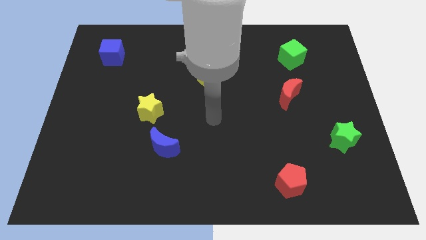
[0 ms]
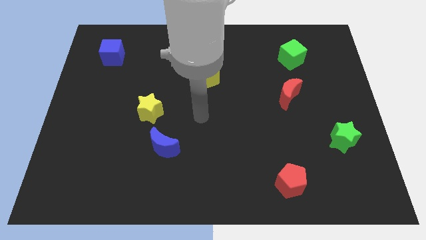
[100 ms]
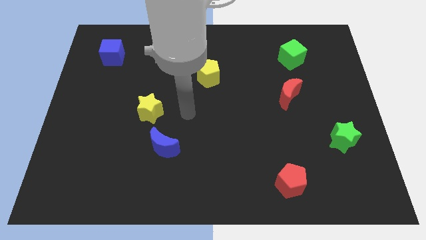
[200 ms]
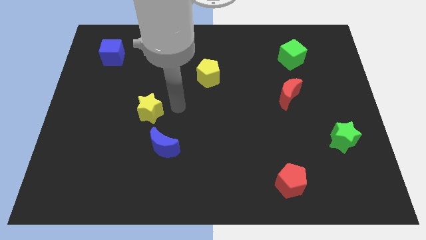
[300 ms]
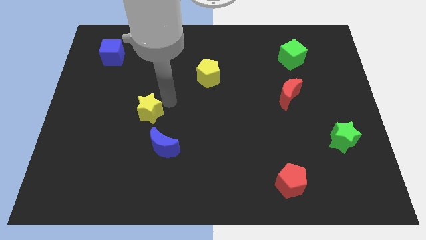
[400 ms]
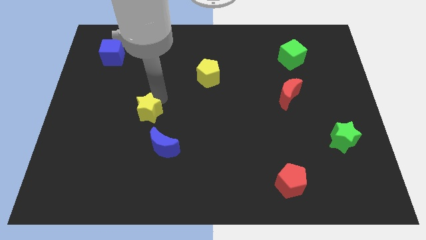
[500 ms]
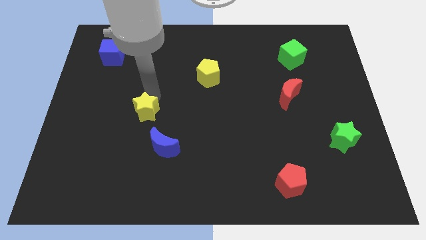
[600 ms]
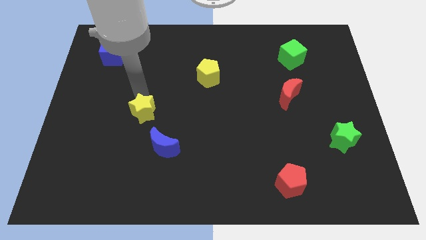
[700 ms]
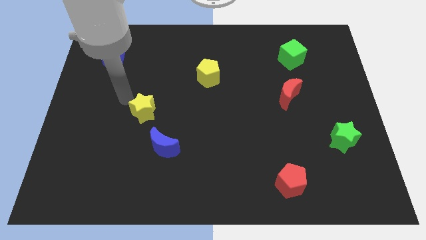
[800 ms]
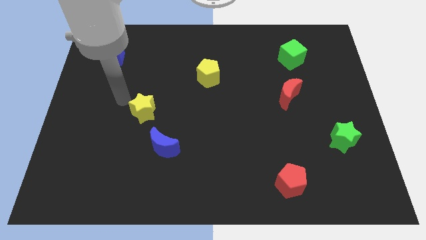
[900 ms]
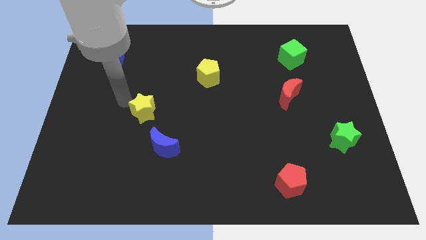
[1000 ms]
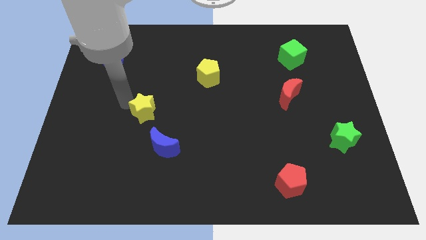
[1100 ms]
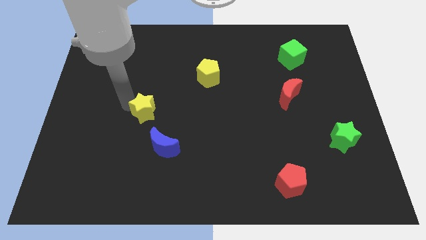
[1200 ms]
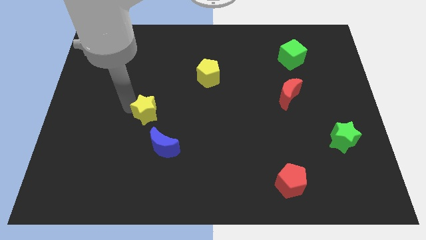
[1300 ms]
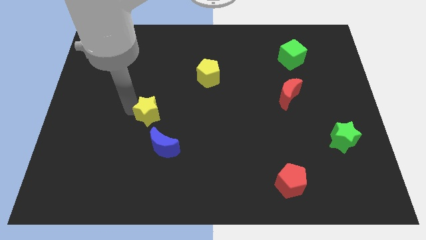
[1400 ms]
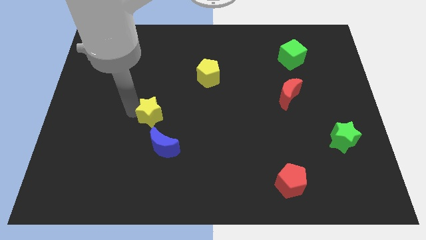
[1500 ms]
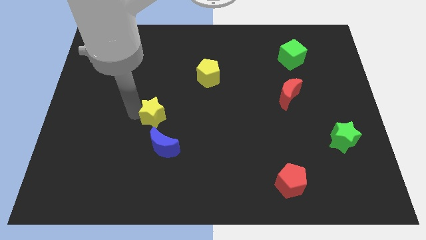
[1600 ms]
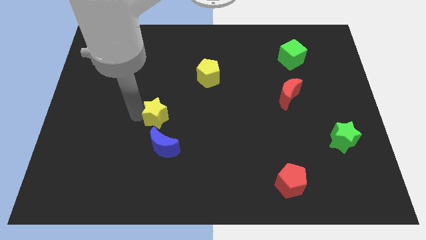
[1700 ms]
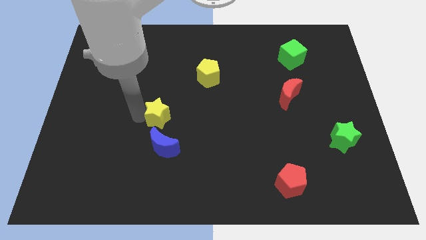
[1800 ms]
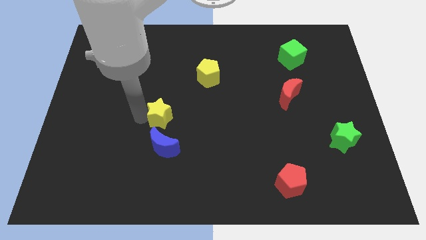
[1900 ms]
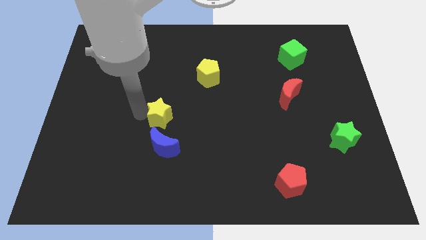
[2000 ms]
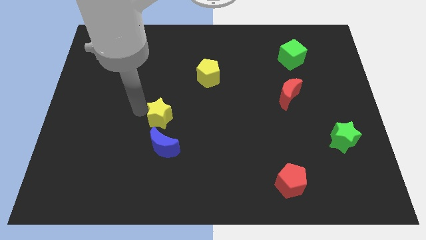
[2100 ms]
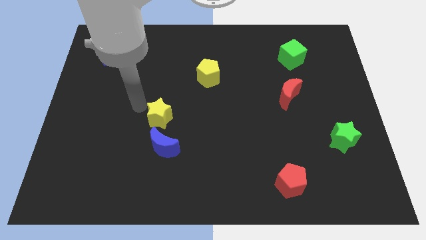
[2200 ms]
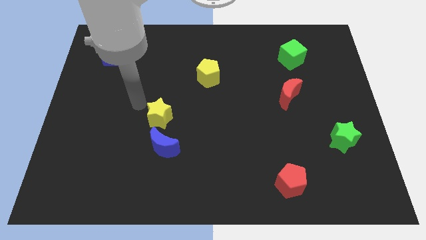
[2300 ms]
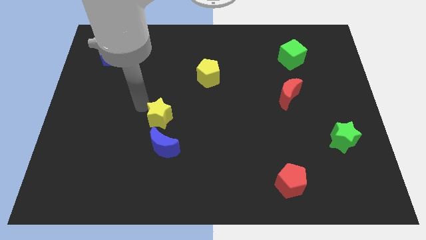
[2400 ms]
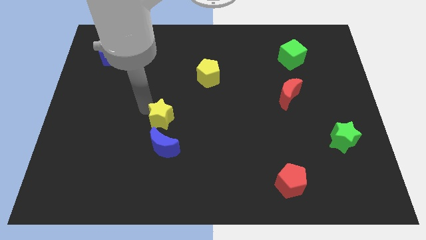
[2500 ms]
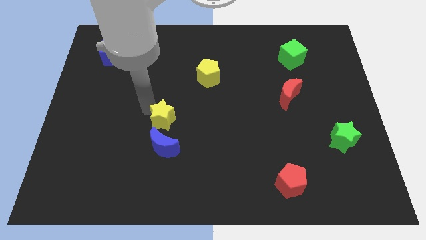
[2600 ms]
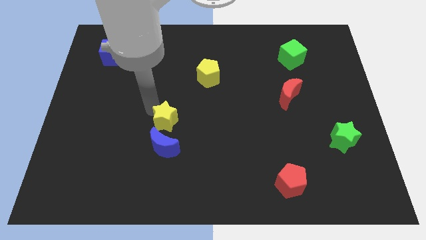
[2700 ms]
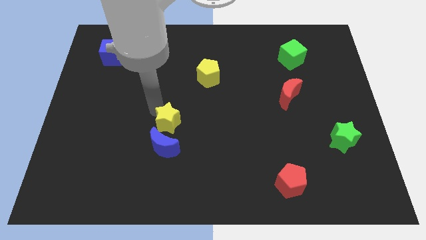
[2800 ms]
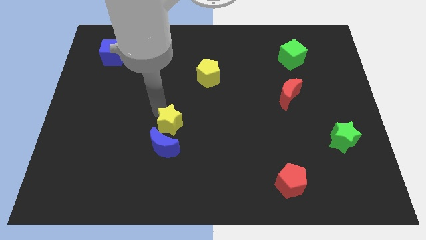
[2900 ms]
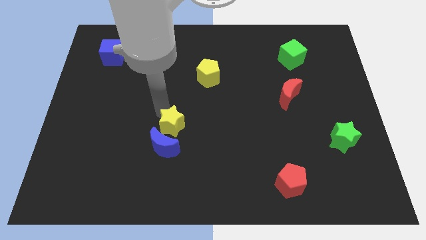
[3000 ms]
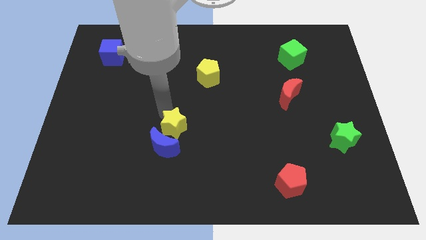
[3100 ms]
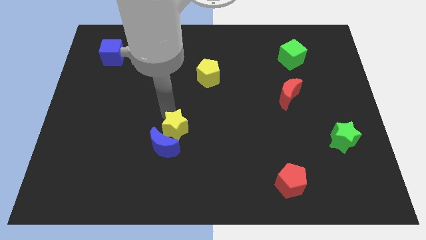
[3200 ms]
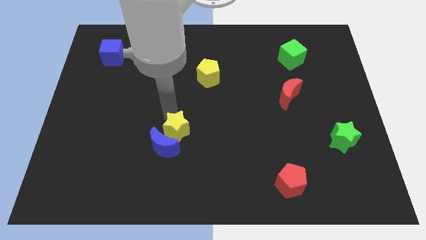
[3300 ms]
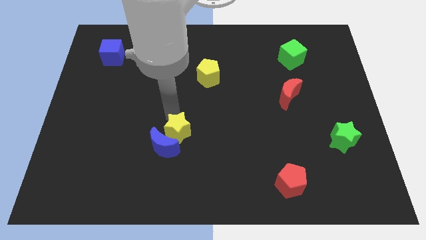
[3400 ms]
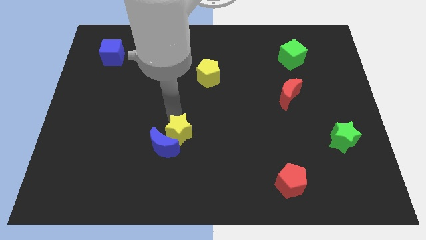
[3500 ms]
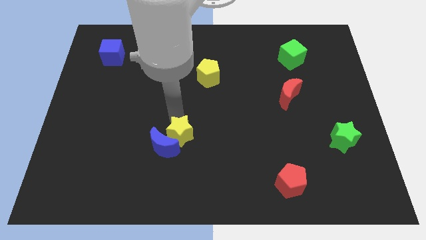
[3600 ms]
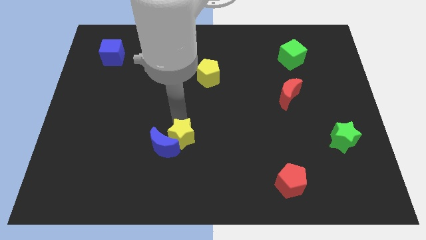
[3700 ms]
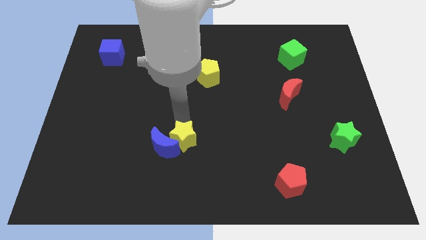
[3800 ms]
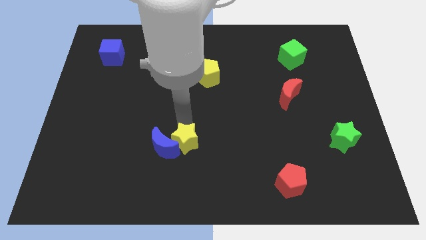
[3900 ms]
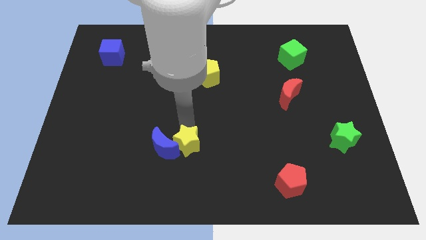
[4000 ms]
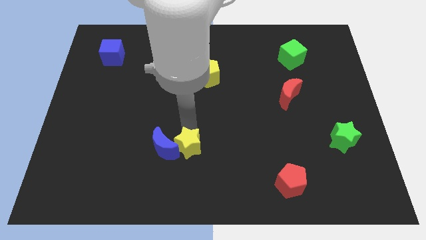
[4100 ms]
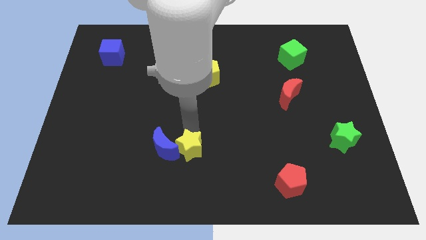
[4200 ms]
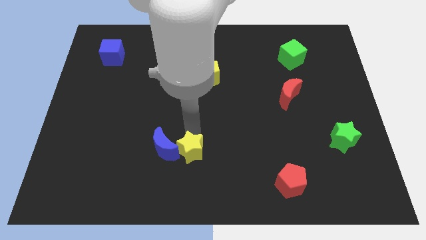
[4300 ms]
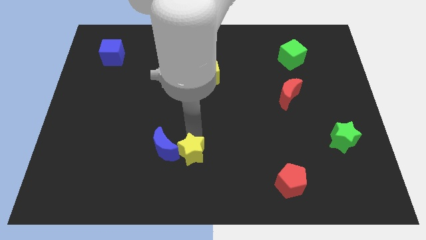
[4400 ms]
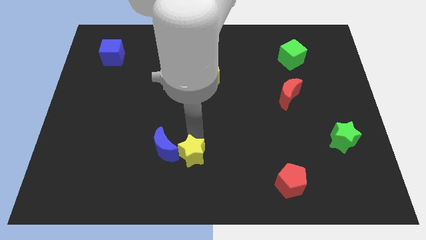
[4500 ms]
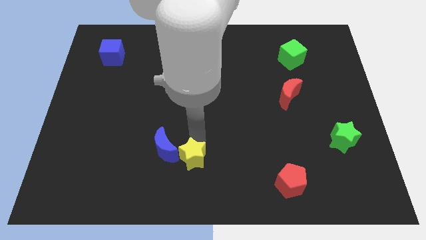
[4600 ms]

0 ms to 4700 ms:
move the yellow star to the bottom side

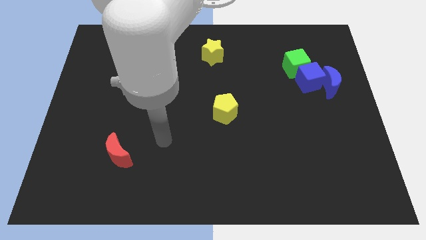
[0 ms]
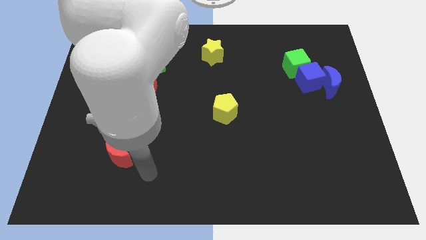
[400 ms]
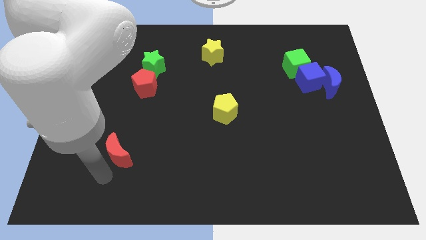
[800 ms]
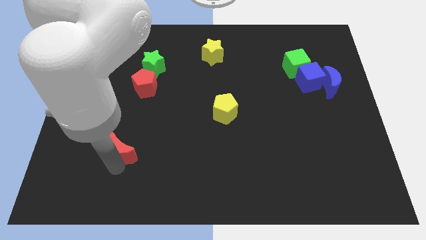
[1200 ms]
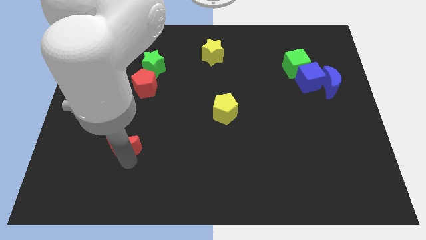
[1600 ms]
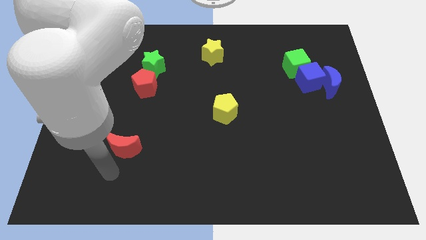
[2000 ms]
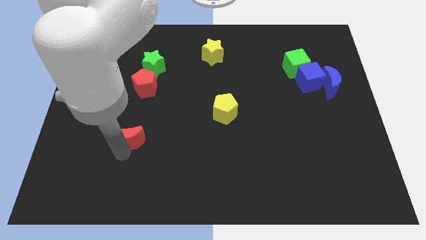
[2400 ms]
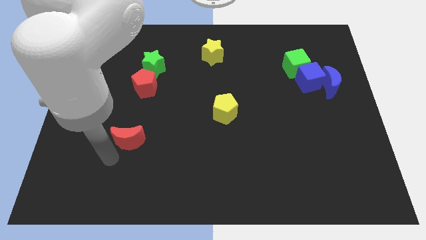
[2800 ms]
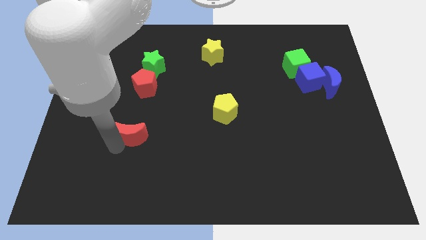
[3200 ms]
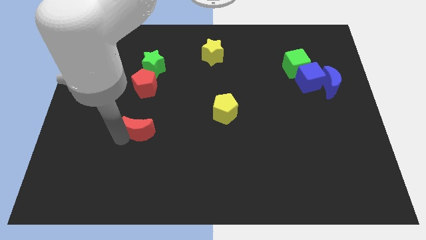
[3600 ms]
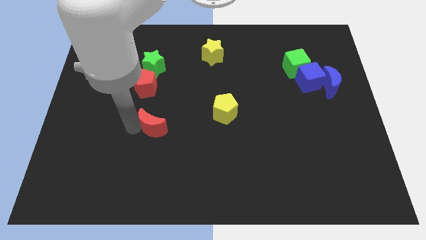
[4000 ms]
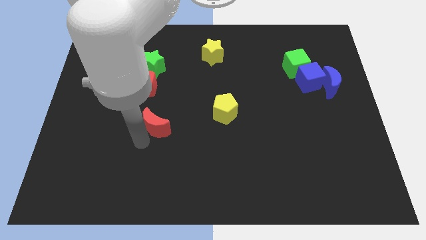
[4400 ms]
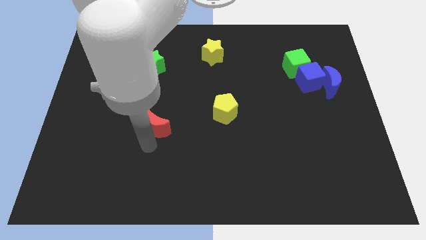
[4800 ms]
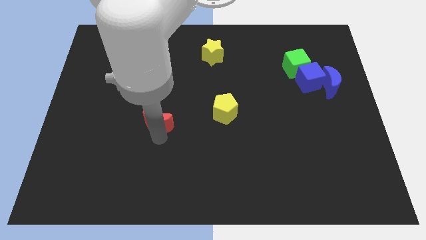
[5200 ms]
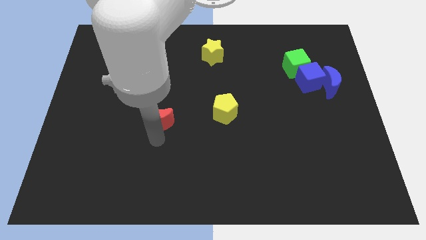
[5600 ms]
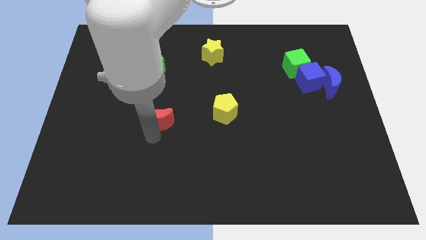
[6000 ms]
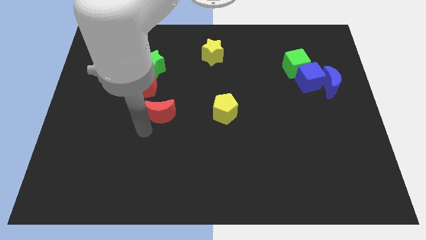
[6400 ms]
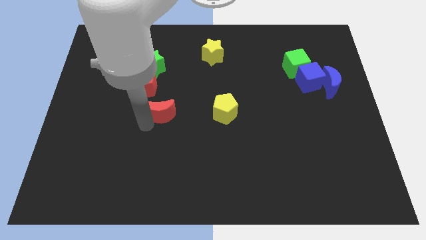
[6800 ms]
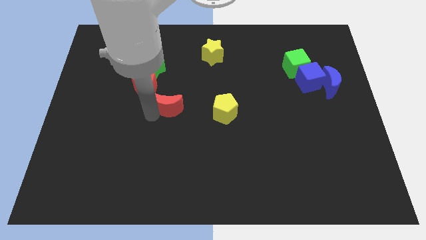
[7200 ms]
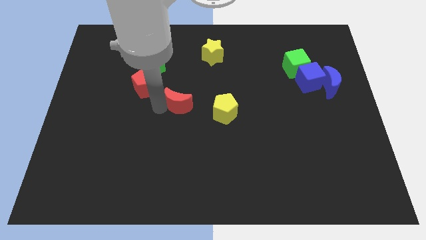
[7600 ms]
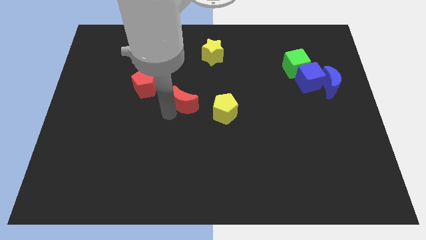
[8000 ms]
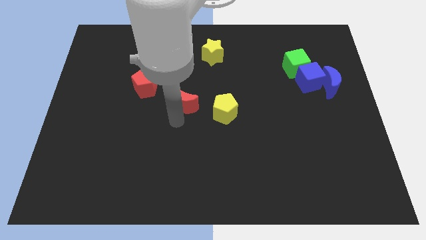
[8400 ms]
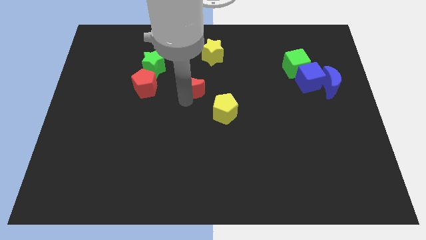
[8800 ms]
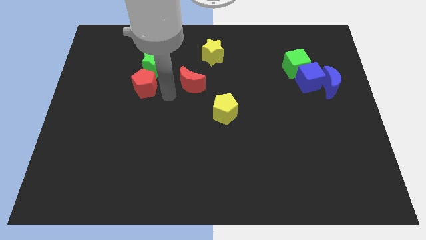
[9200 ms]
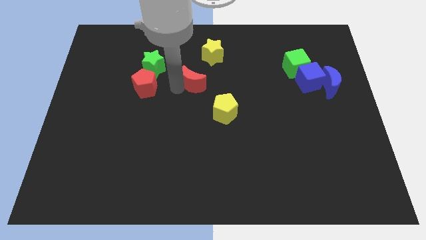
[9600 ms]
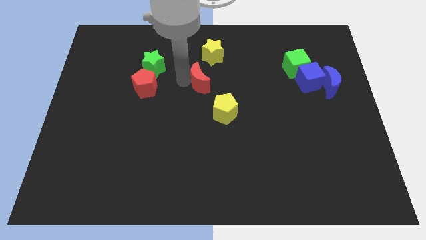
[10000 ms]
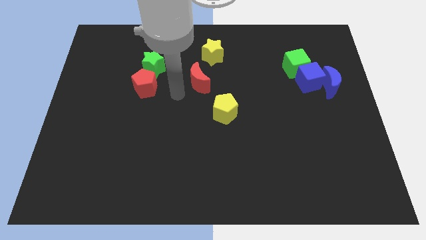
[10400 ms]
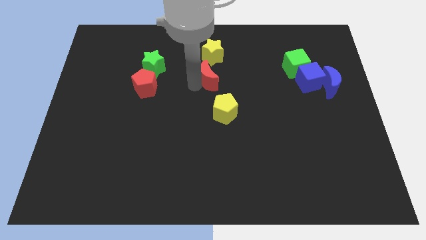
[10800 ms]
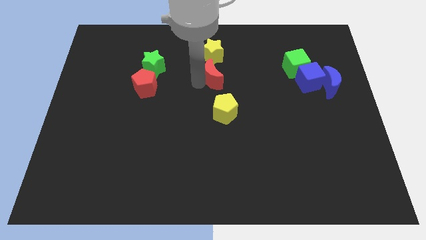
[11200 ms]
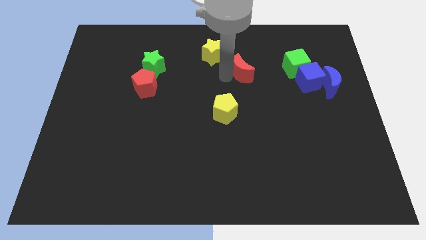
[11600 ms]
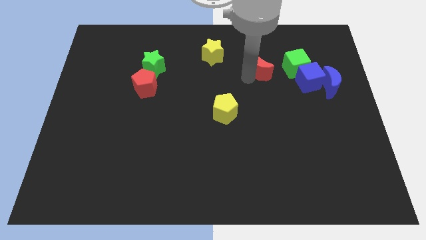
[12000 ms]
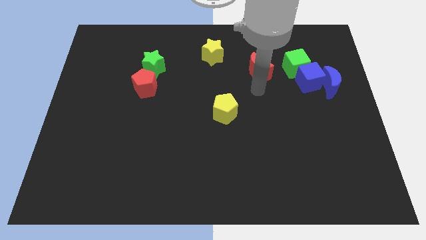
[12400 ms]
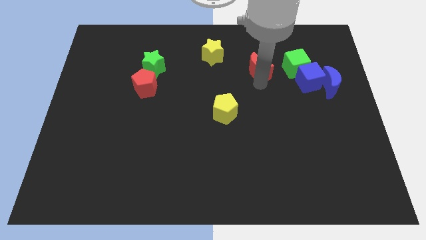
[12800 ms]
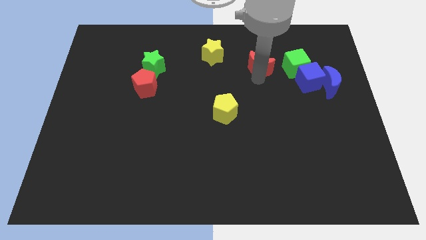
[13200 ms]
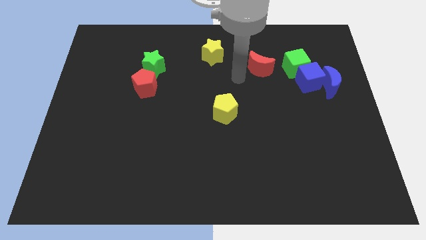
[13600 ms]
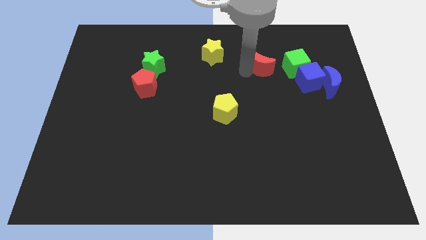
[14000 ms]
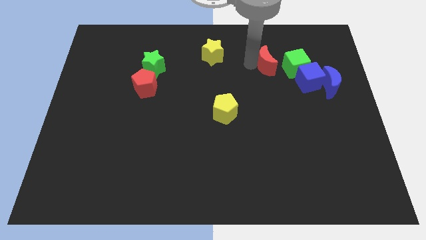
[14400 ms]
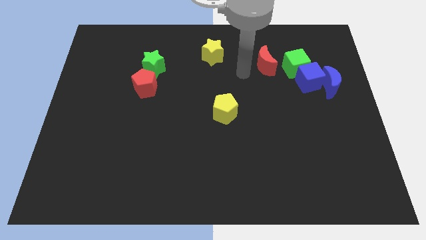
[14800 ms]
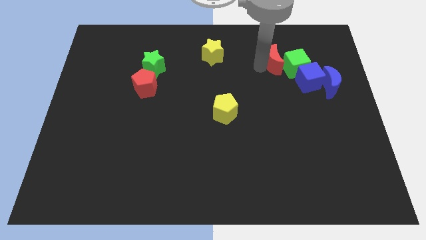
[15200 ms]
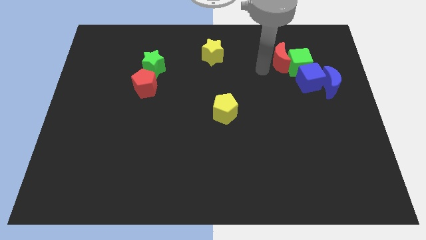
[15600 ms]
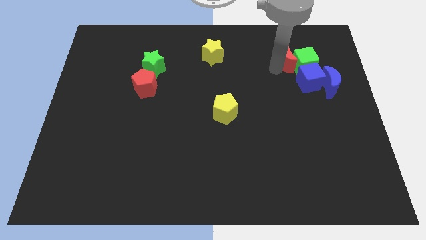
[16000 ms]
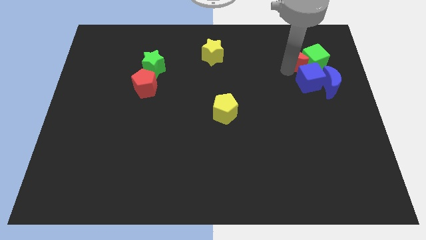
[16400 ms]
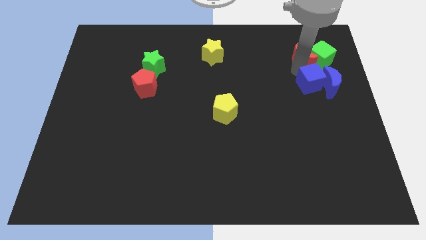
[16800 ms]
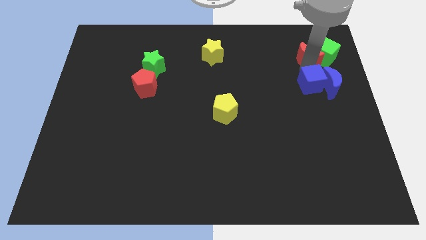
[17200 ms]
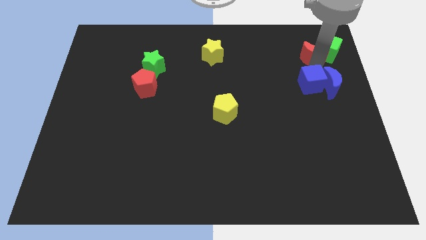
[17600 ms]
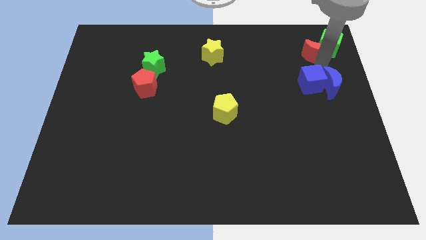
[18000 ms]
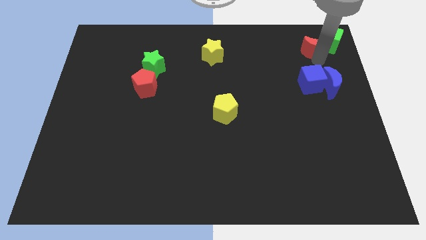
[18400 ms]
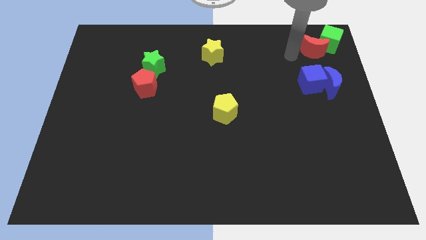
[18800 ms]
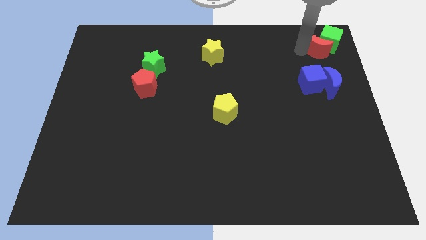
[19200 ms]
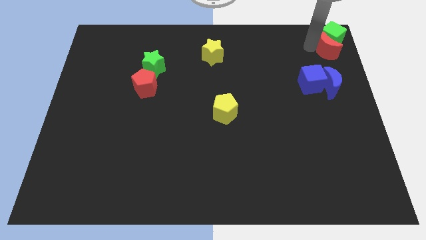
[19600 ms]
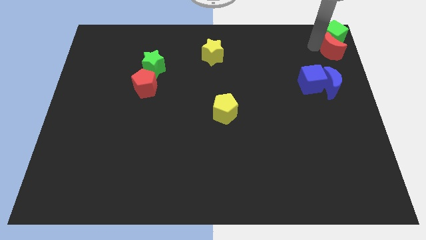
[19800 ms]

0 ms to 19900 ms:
push the red moon to the upper right corner
